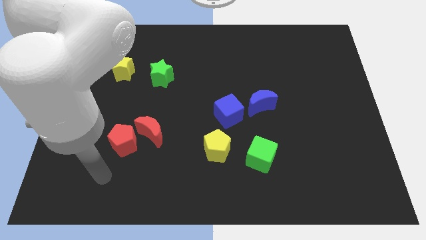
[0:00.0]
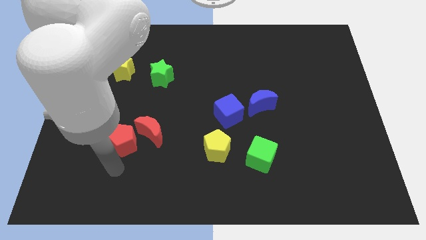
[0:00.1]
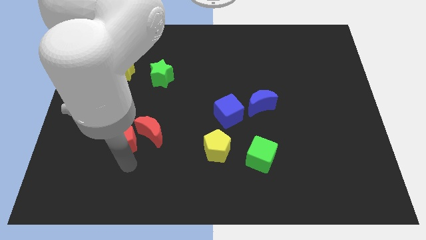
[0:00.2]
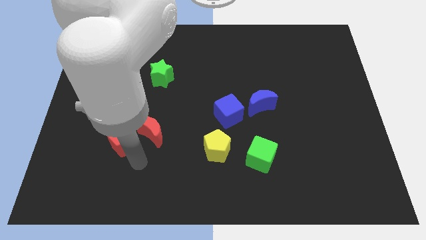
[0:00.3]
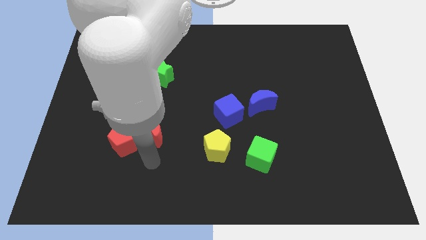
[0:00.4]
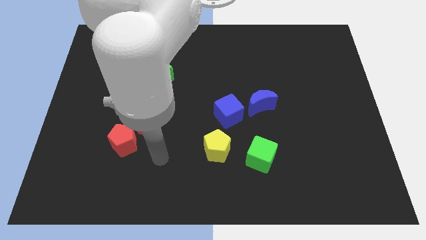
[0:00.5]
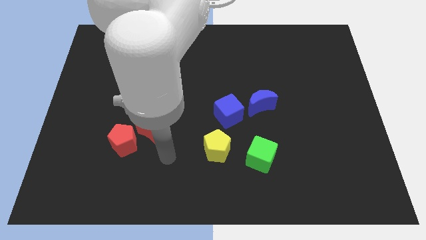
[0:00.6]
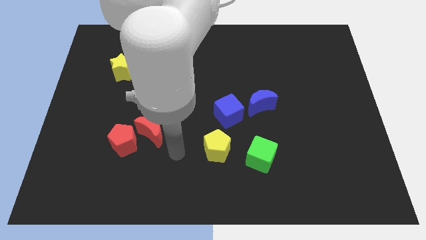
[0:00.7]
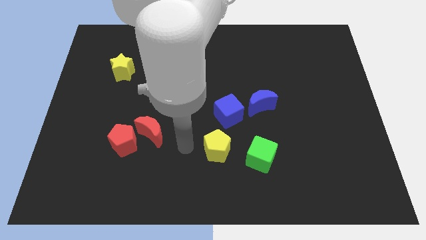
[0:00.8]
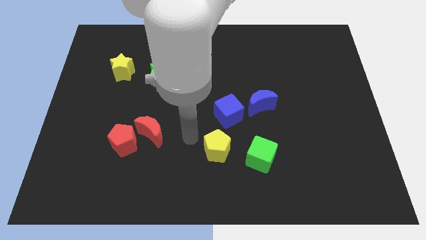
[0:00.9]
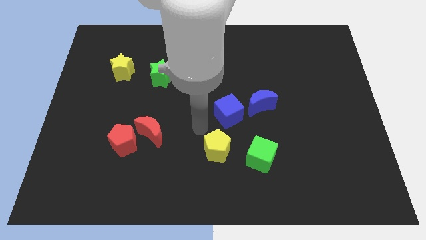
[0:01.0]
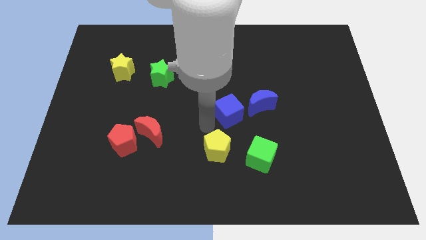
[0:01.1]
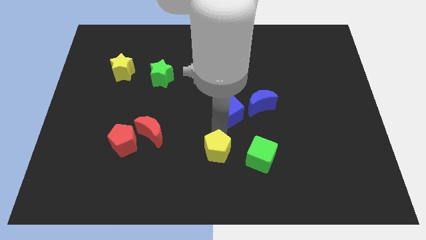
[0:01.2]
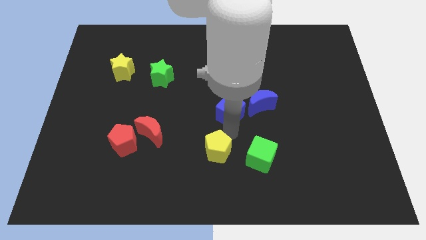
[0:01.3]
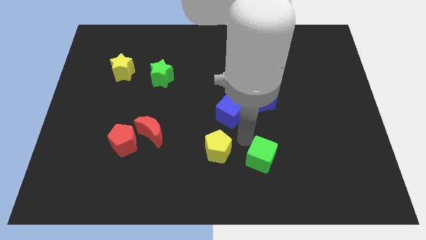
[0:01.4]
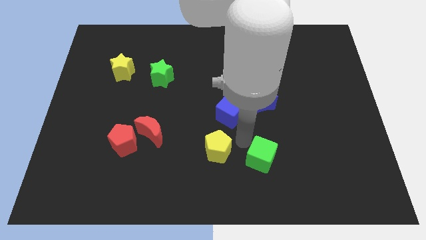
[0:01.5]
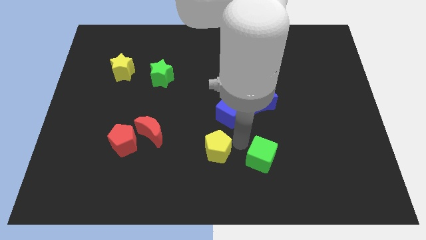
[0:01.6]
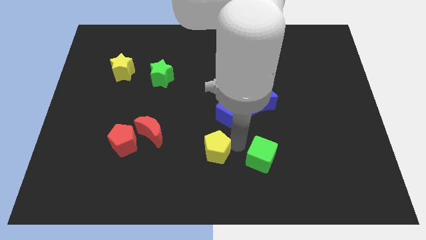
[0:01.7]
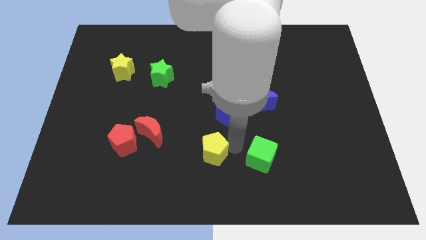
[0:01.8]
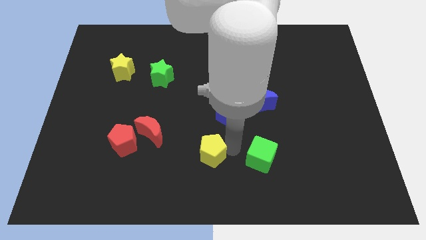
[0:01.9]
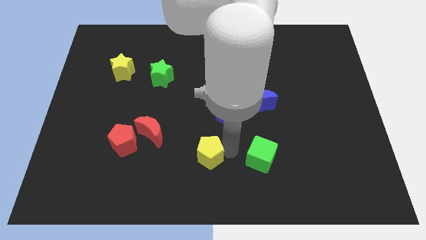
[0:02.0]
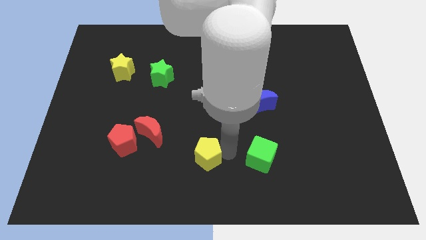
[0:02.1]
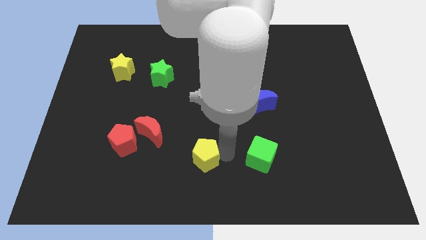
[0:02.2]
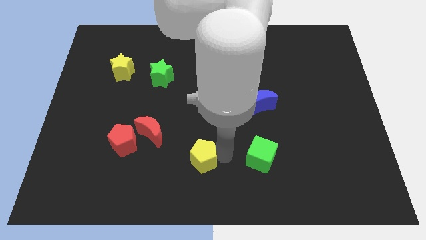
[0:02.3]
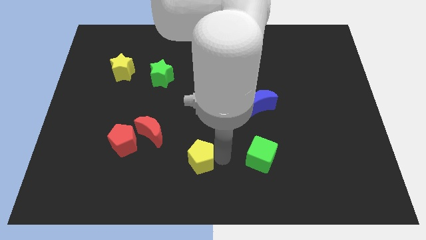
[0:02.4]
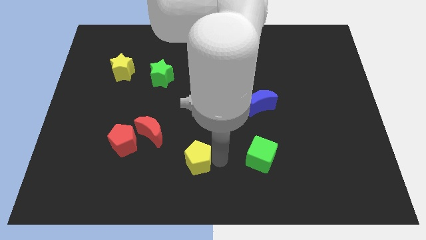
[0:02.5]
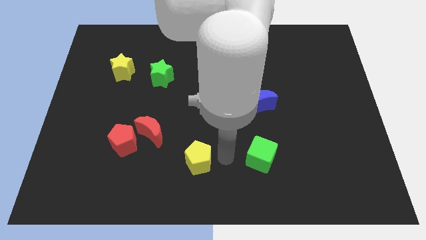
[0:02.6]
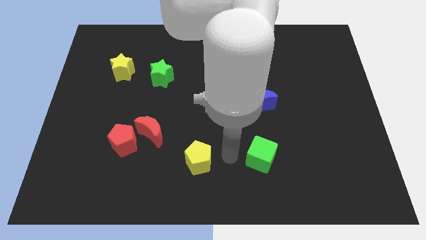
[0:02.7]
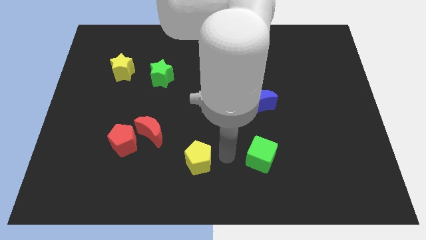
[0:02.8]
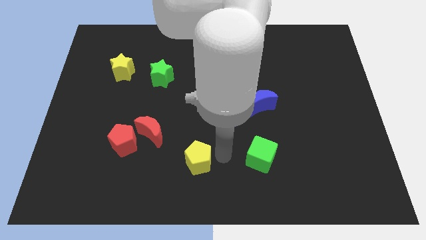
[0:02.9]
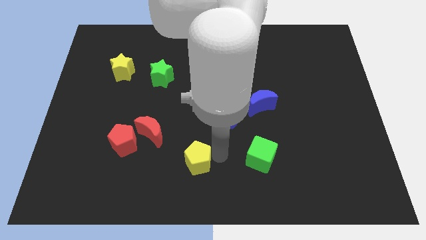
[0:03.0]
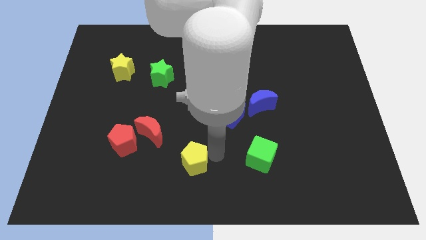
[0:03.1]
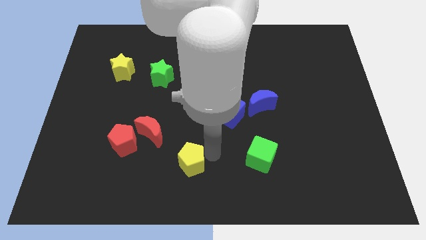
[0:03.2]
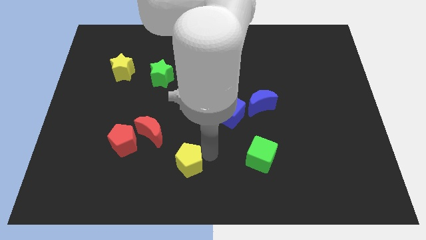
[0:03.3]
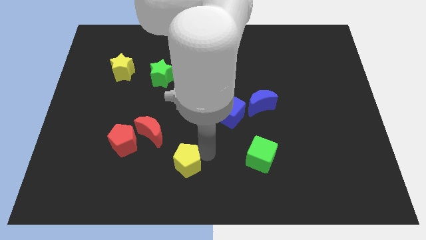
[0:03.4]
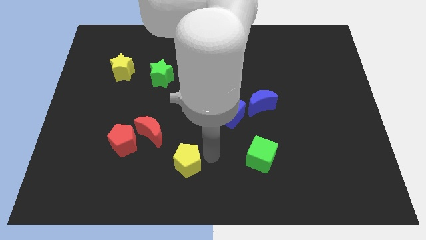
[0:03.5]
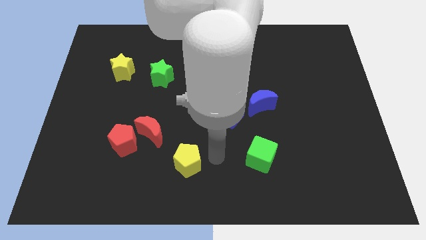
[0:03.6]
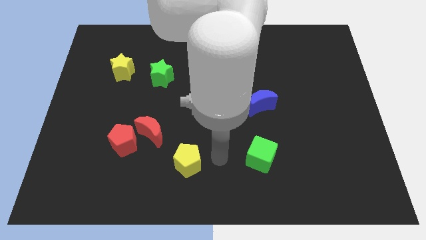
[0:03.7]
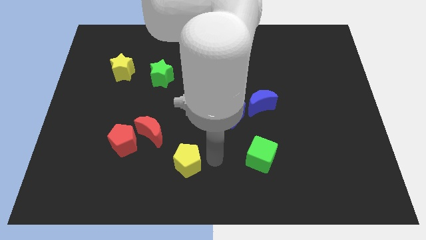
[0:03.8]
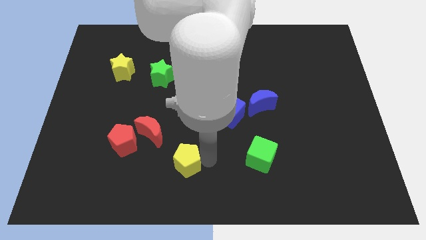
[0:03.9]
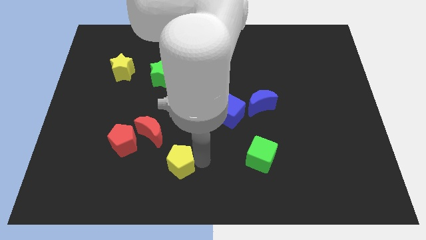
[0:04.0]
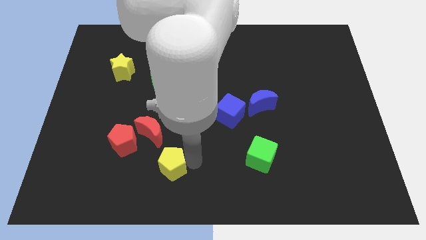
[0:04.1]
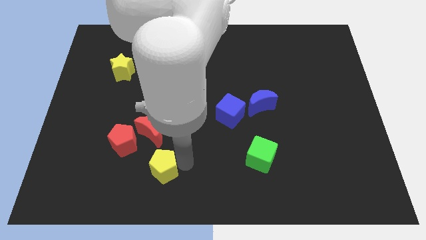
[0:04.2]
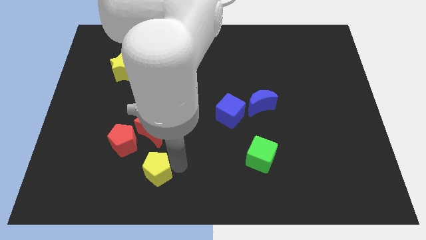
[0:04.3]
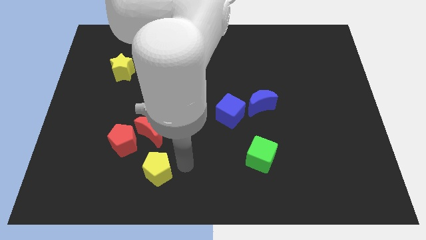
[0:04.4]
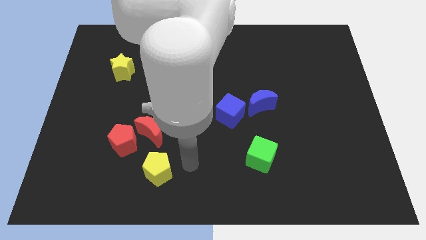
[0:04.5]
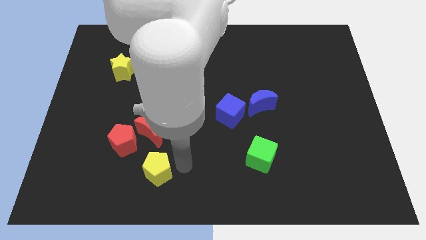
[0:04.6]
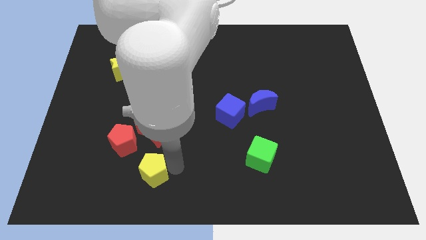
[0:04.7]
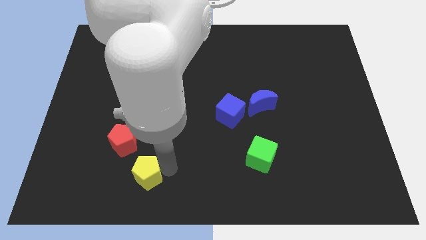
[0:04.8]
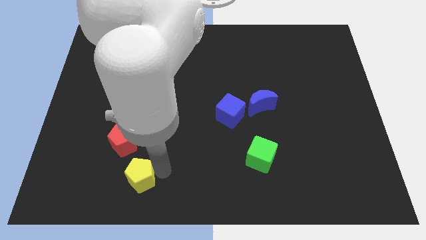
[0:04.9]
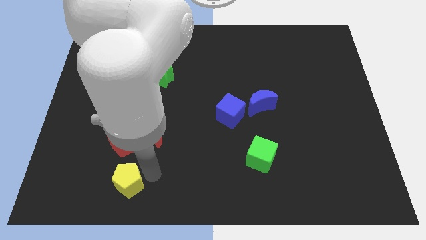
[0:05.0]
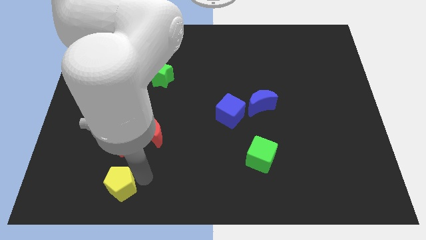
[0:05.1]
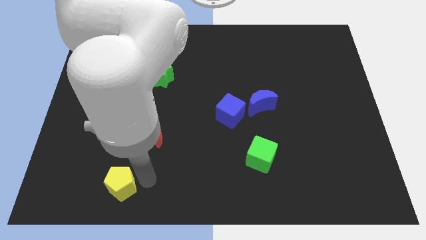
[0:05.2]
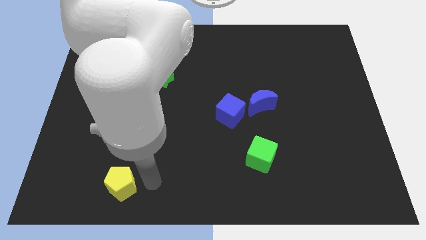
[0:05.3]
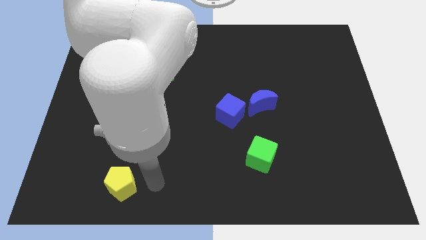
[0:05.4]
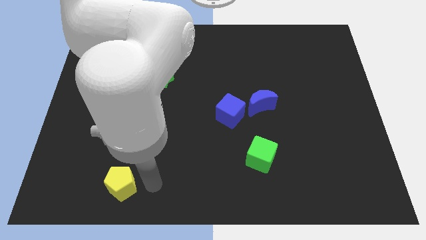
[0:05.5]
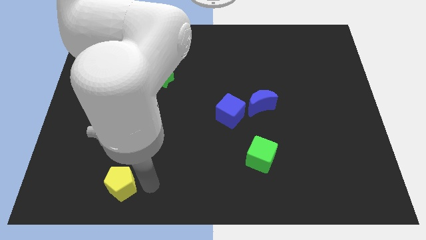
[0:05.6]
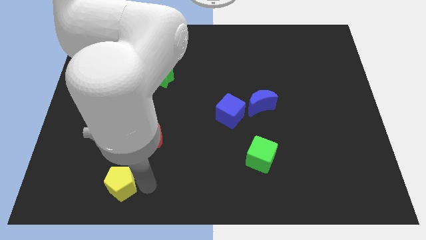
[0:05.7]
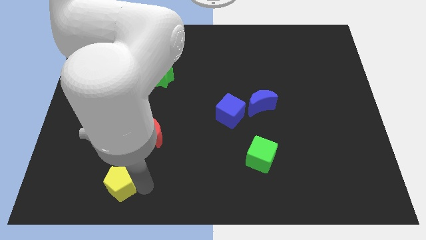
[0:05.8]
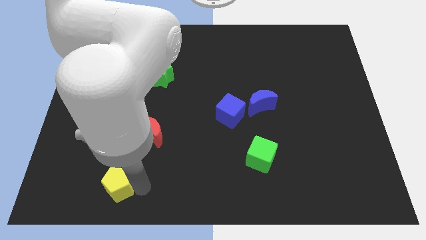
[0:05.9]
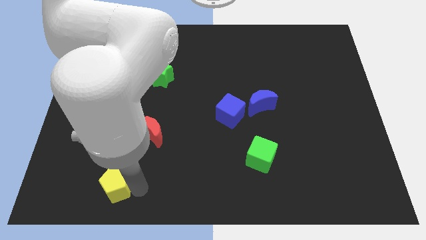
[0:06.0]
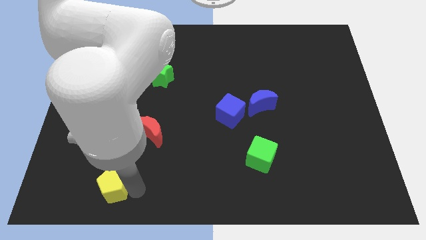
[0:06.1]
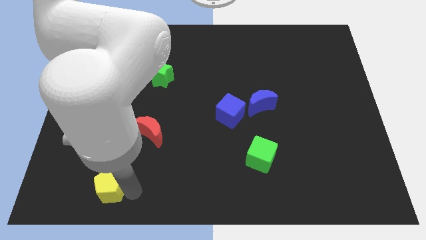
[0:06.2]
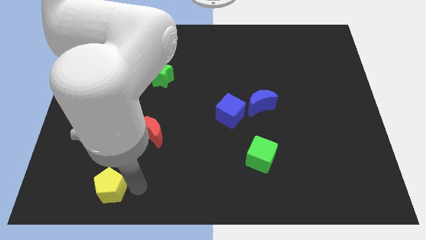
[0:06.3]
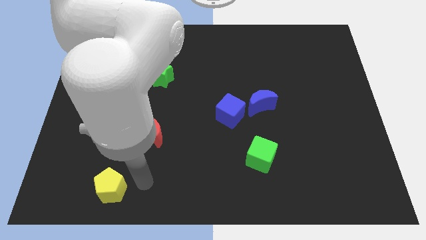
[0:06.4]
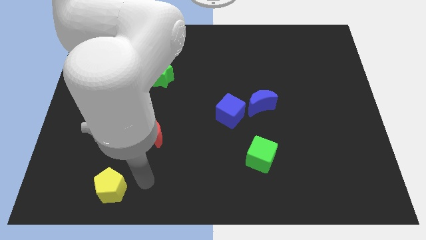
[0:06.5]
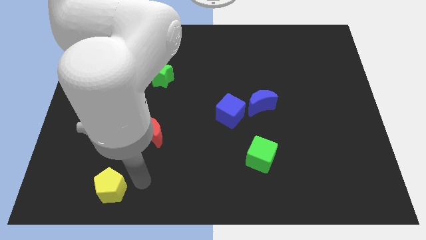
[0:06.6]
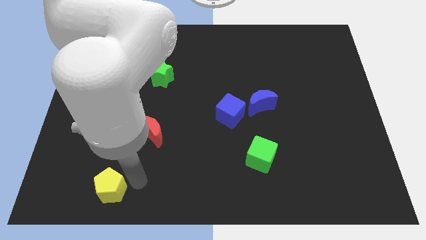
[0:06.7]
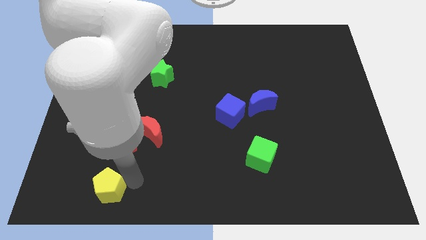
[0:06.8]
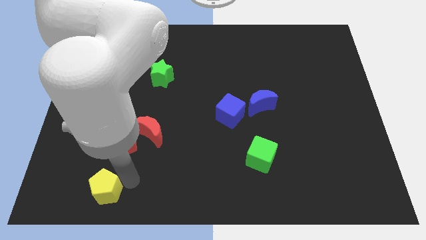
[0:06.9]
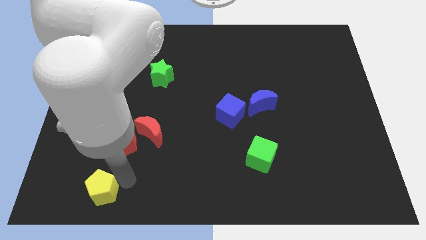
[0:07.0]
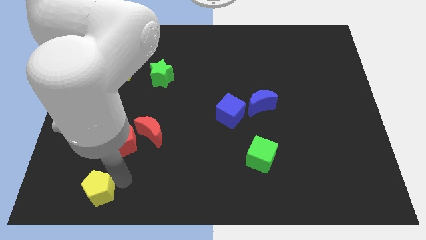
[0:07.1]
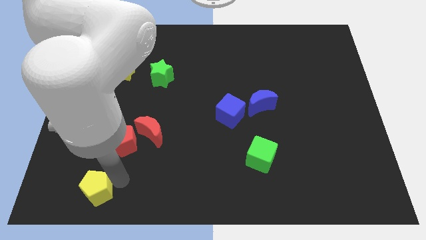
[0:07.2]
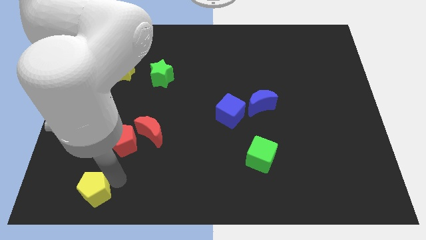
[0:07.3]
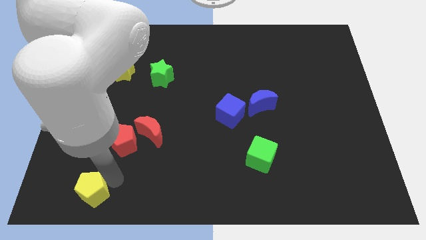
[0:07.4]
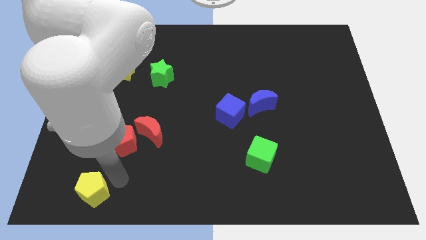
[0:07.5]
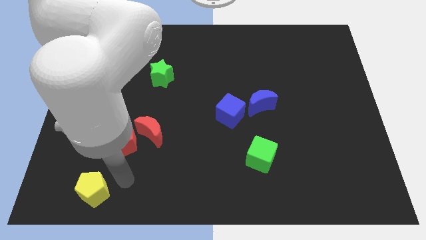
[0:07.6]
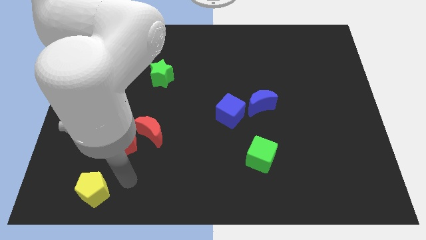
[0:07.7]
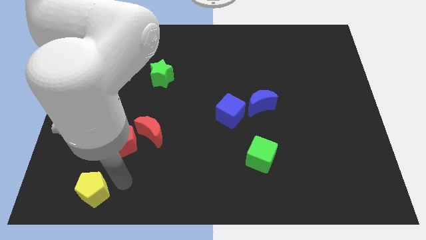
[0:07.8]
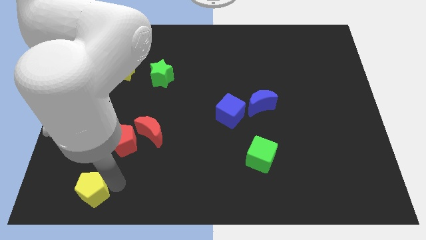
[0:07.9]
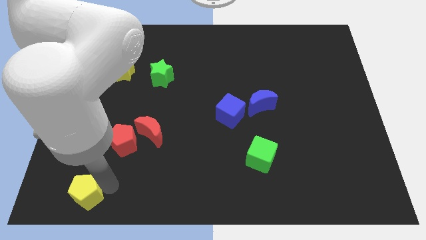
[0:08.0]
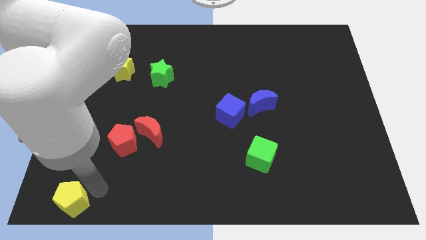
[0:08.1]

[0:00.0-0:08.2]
move the yellow pentagon to the bottom left corner
